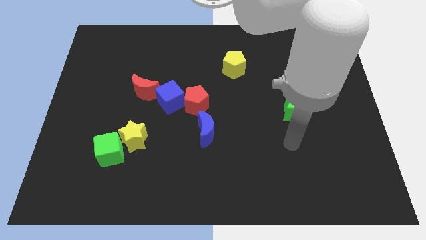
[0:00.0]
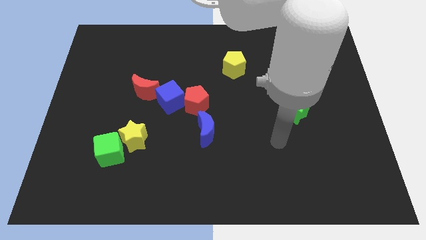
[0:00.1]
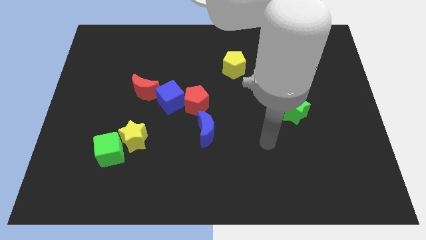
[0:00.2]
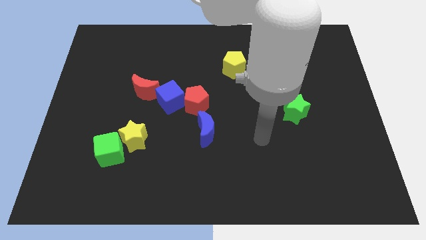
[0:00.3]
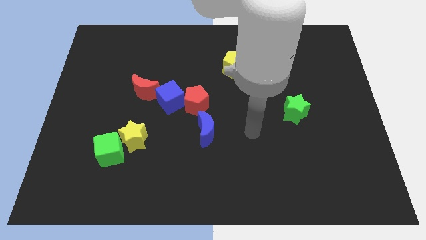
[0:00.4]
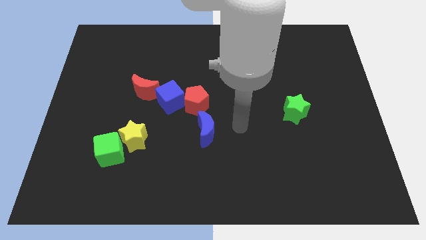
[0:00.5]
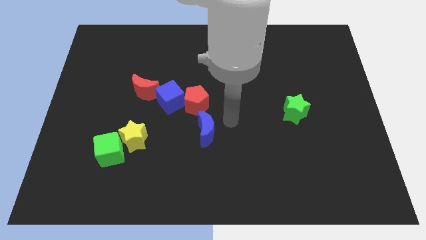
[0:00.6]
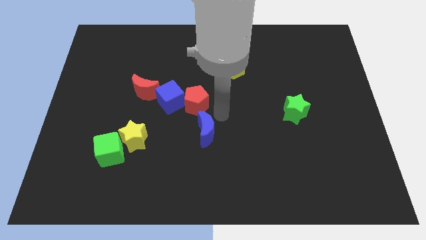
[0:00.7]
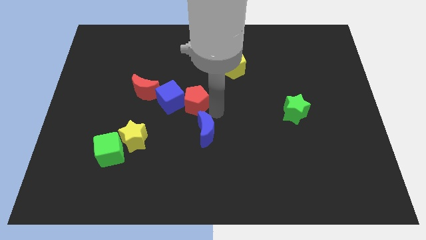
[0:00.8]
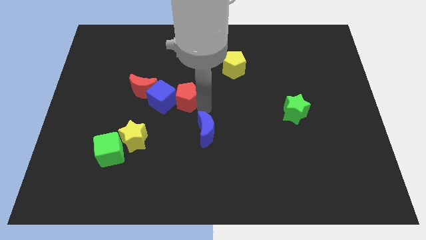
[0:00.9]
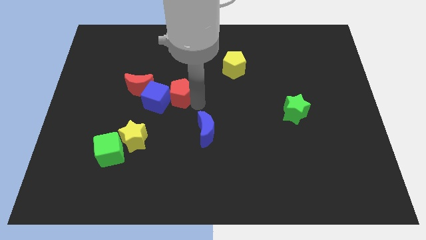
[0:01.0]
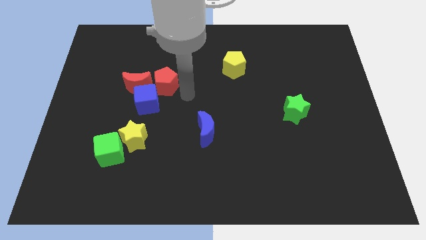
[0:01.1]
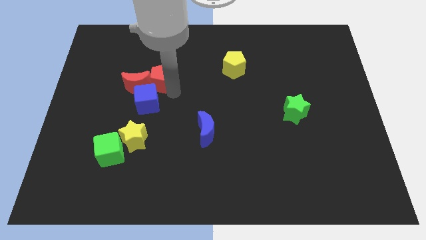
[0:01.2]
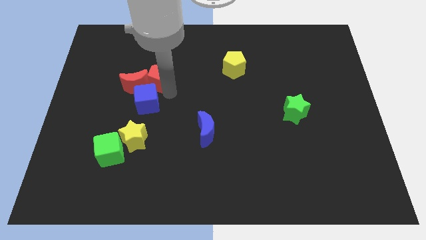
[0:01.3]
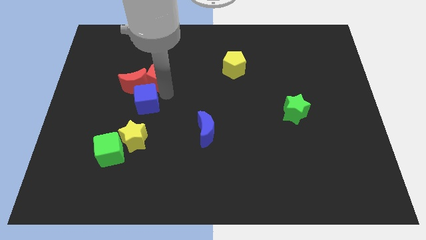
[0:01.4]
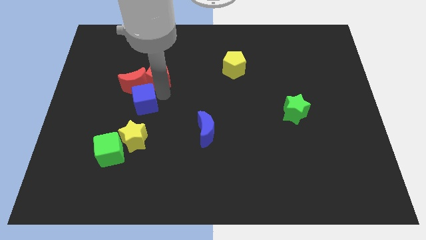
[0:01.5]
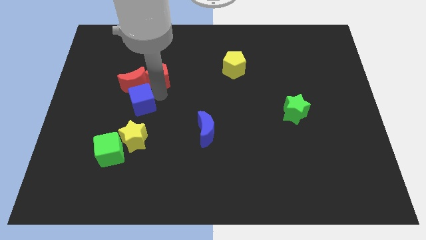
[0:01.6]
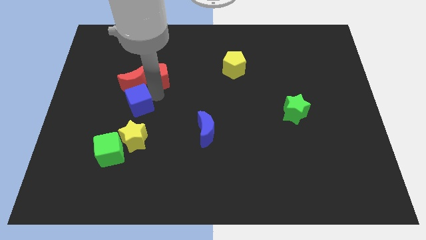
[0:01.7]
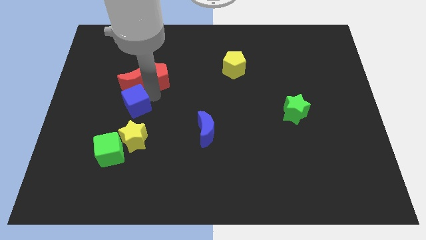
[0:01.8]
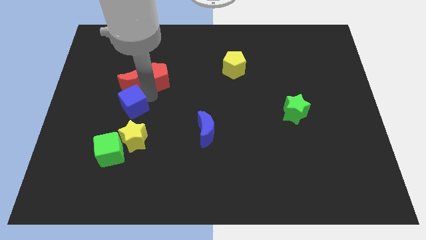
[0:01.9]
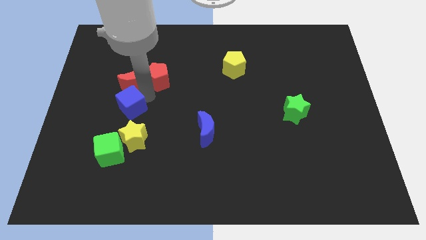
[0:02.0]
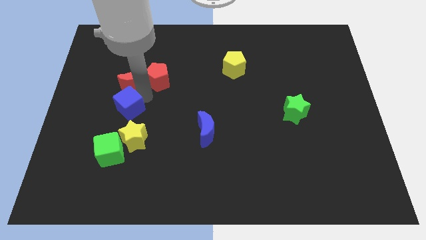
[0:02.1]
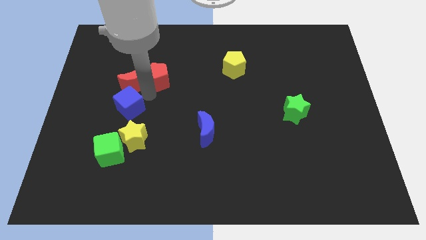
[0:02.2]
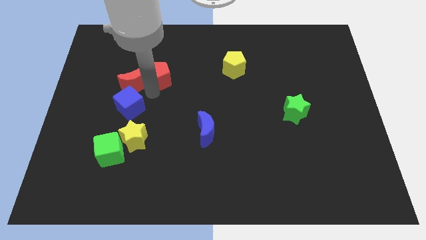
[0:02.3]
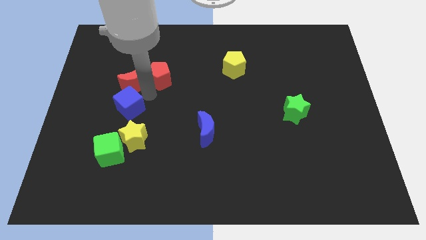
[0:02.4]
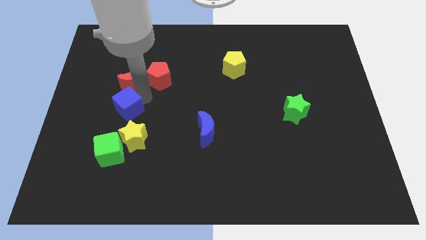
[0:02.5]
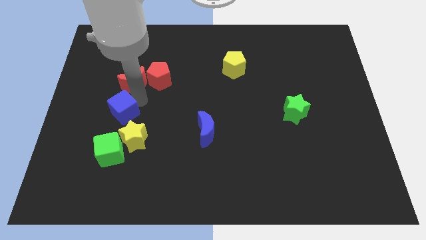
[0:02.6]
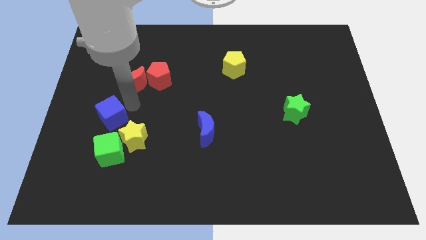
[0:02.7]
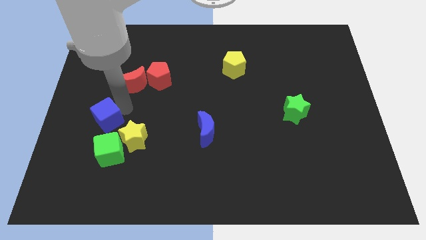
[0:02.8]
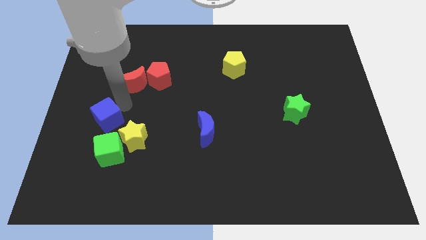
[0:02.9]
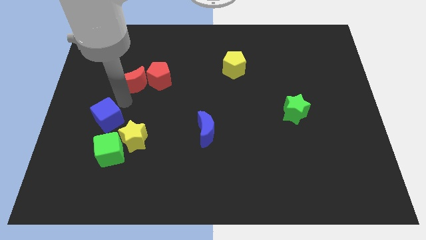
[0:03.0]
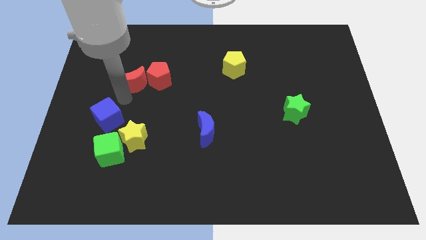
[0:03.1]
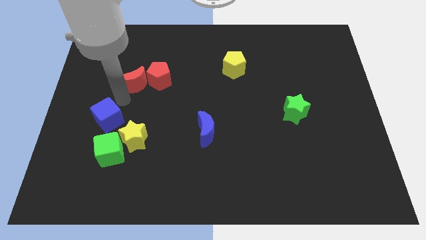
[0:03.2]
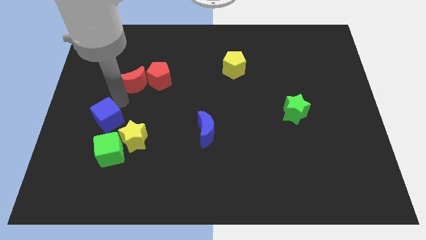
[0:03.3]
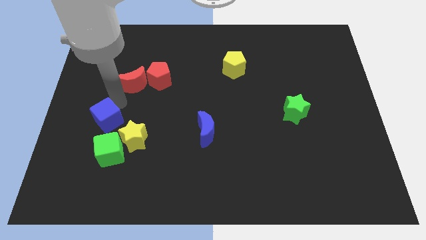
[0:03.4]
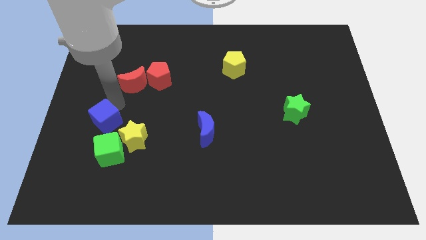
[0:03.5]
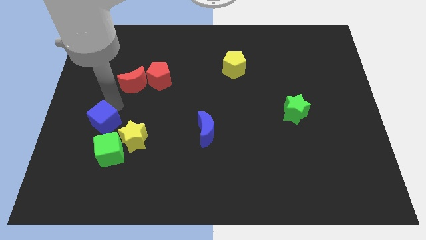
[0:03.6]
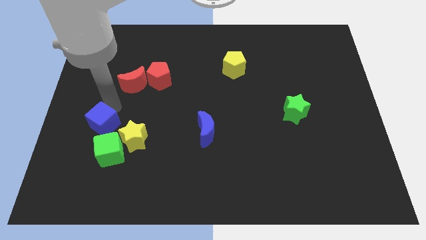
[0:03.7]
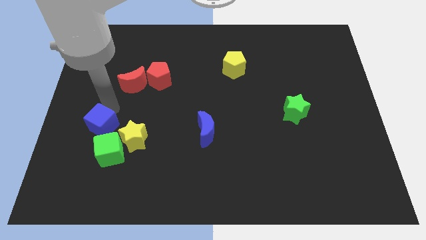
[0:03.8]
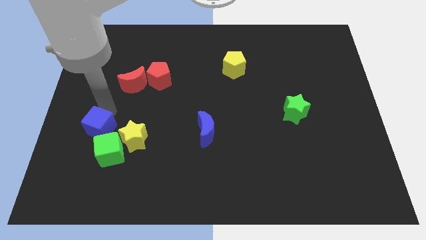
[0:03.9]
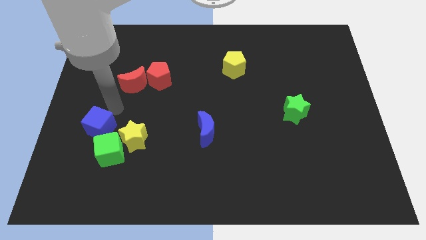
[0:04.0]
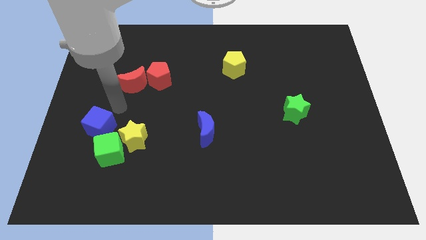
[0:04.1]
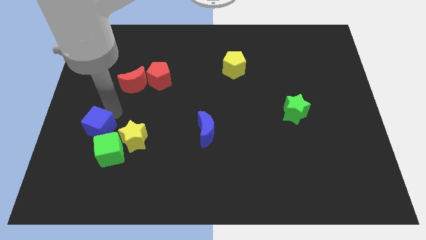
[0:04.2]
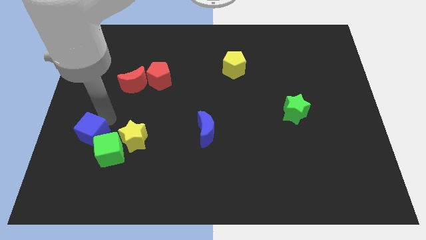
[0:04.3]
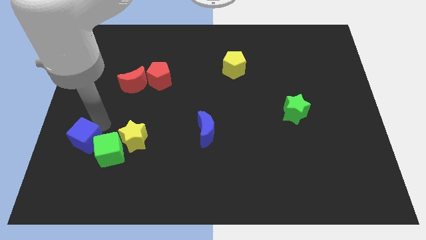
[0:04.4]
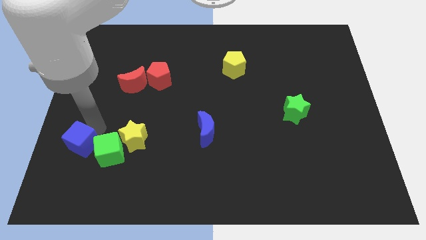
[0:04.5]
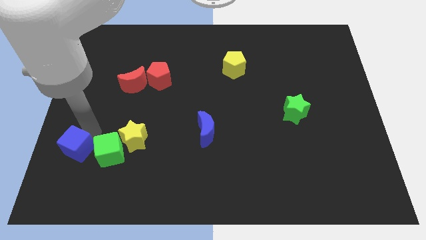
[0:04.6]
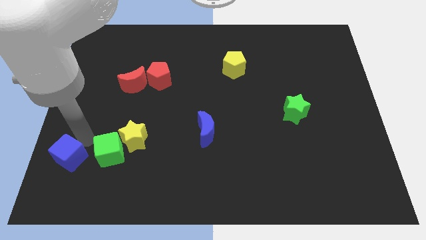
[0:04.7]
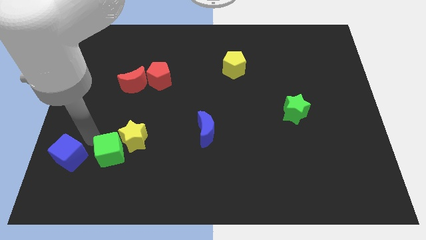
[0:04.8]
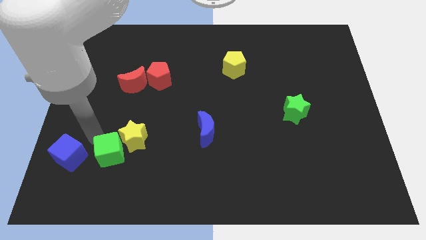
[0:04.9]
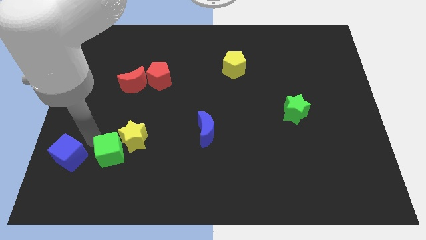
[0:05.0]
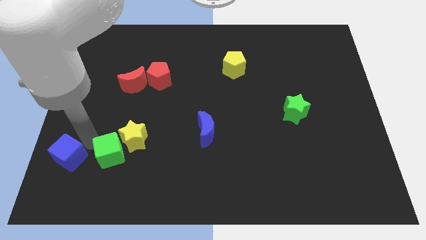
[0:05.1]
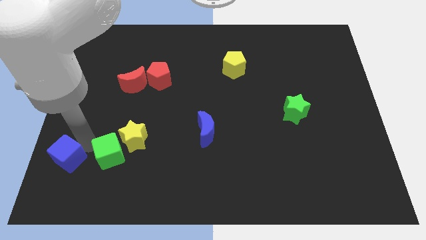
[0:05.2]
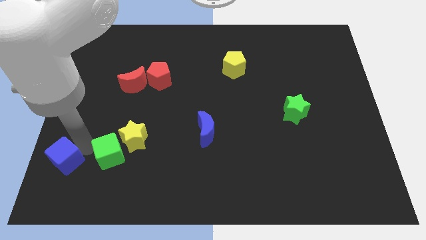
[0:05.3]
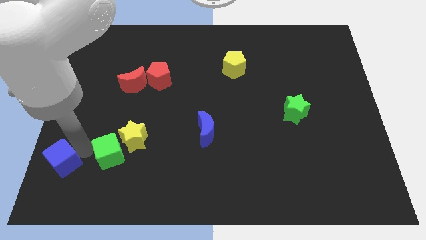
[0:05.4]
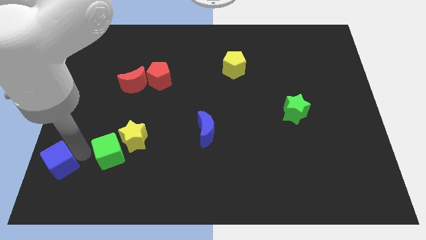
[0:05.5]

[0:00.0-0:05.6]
slide the blue cube to the bottom left corner

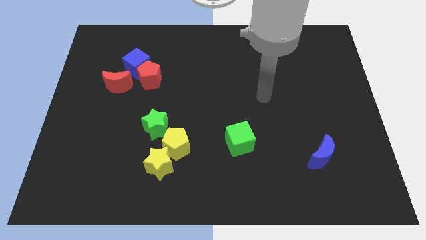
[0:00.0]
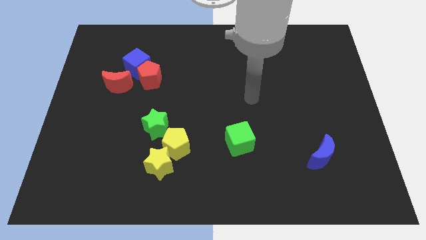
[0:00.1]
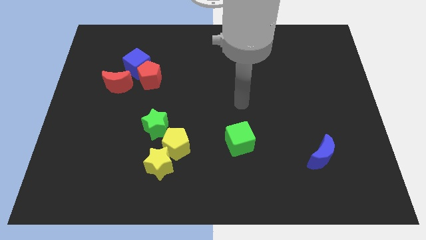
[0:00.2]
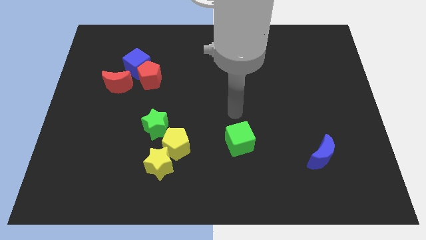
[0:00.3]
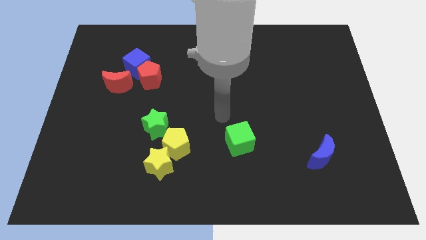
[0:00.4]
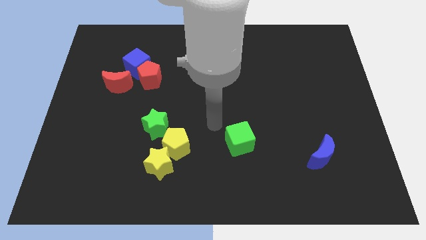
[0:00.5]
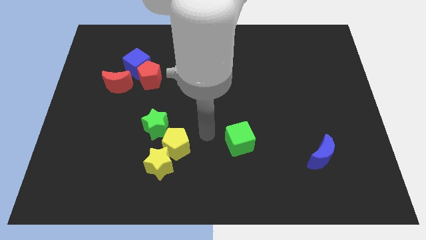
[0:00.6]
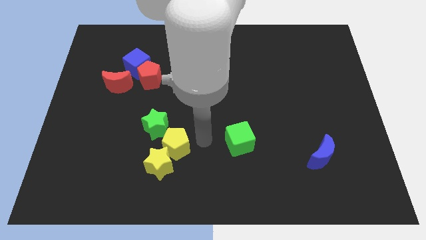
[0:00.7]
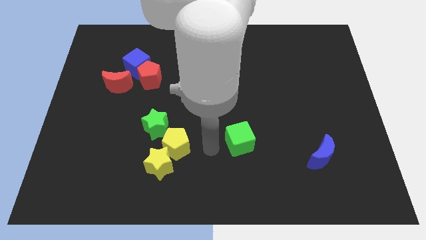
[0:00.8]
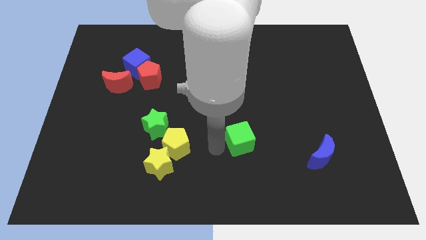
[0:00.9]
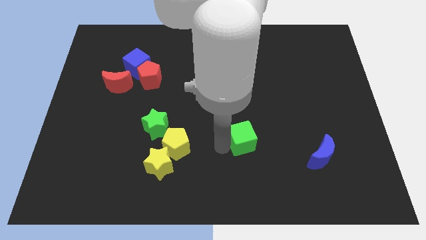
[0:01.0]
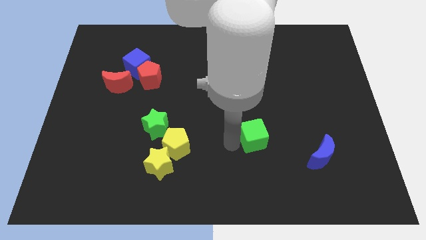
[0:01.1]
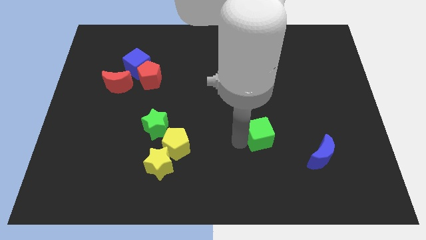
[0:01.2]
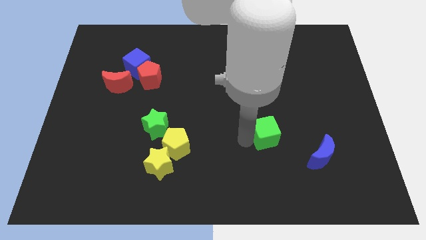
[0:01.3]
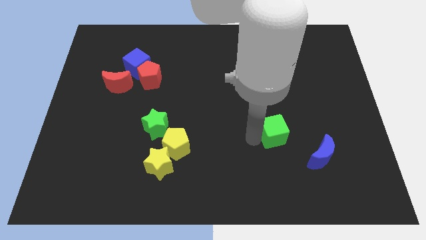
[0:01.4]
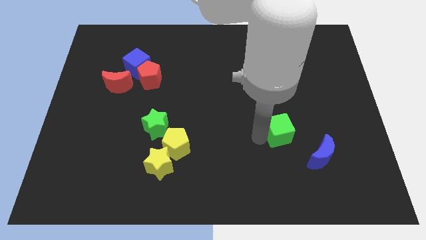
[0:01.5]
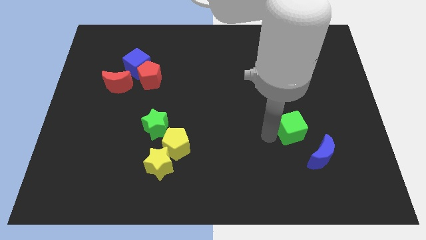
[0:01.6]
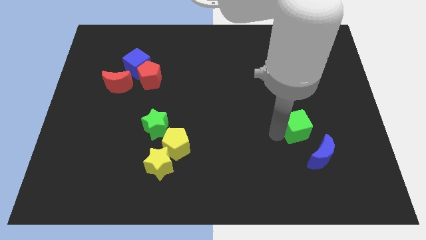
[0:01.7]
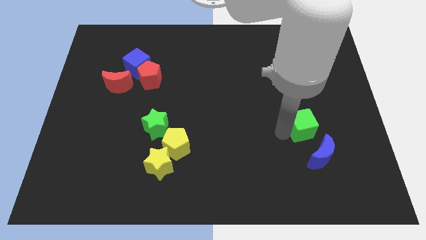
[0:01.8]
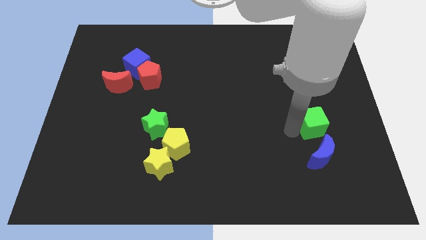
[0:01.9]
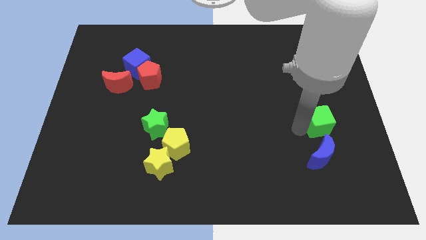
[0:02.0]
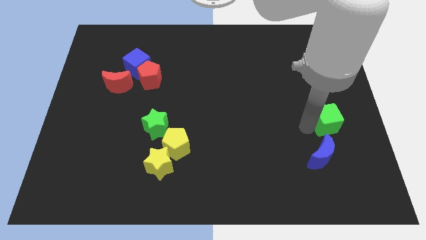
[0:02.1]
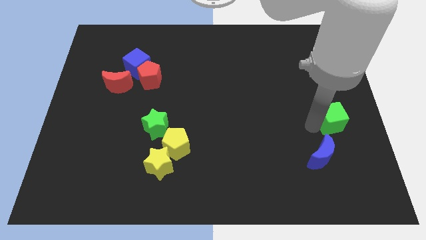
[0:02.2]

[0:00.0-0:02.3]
slide the green cube to the right side
